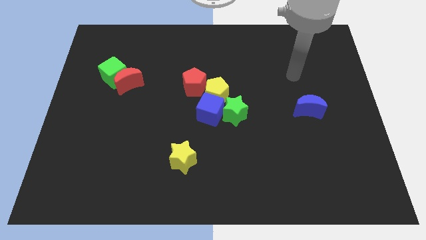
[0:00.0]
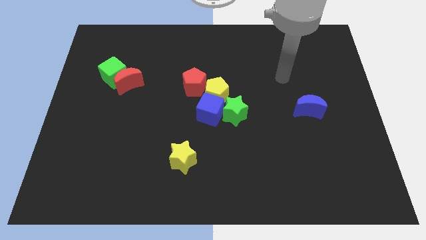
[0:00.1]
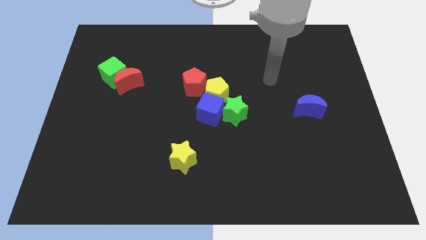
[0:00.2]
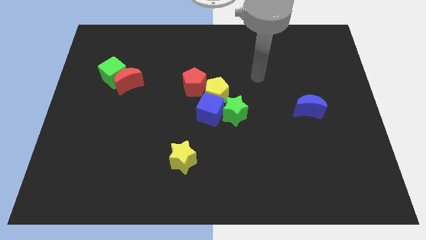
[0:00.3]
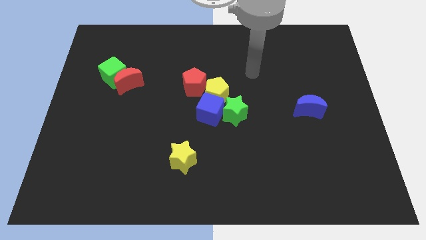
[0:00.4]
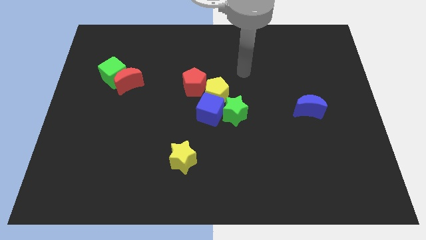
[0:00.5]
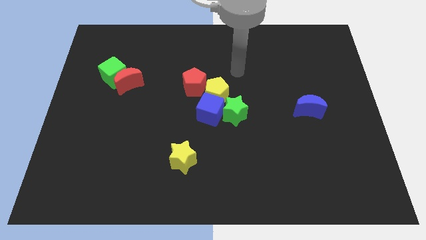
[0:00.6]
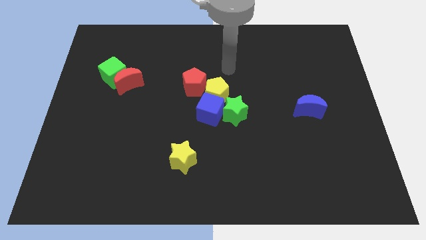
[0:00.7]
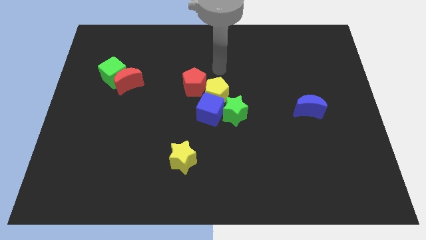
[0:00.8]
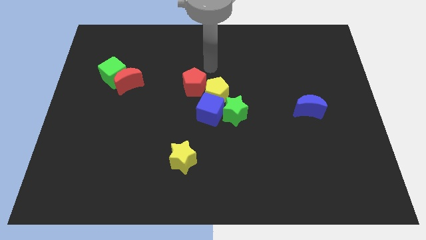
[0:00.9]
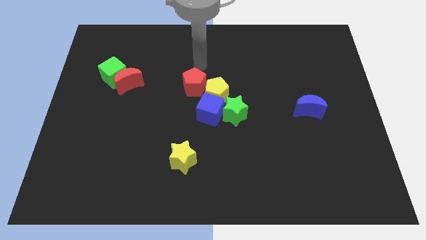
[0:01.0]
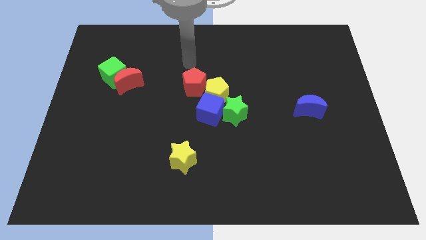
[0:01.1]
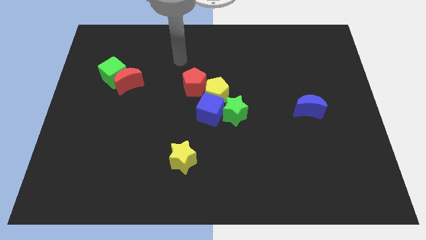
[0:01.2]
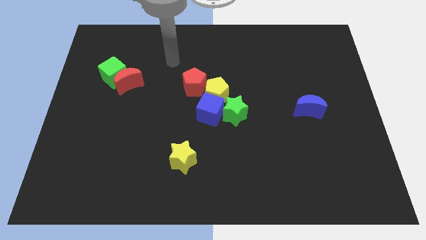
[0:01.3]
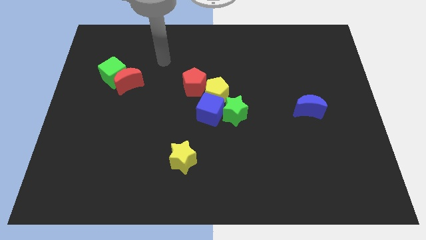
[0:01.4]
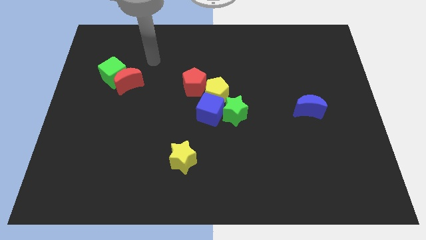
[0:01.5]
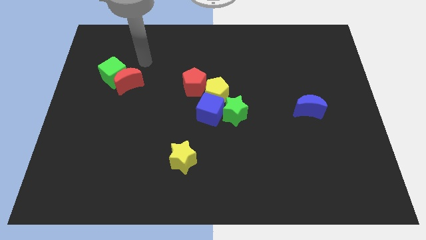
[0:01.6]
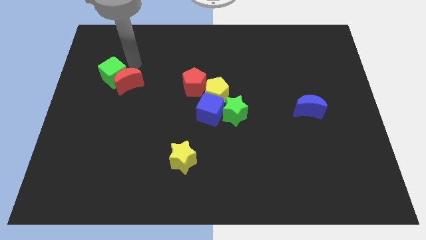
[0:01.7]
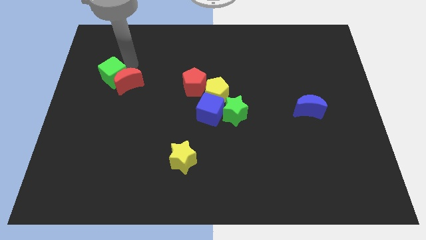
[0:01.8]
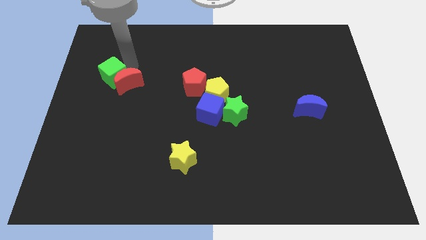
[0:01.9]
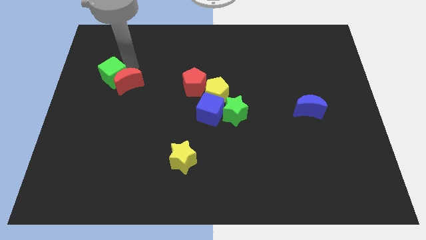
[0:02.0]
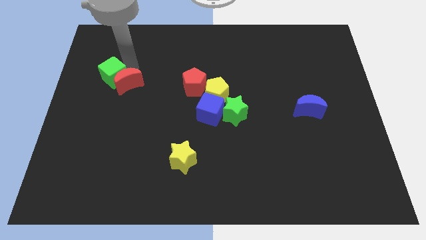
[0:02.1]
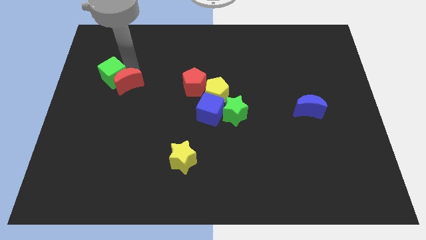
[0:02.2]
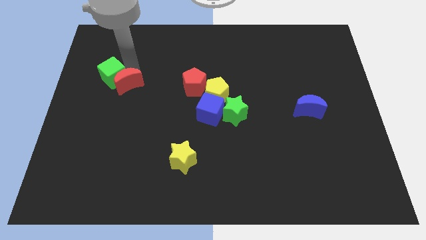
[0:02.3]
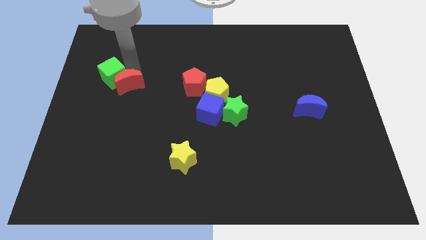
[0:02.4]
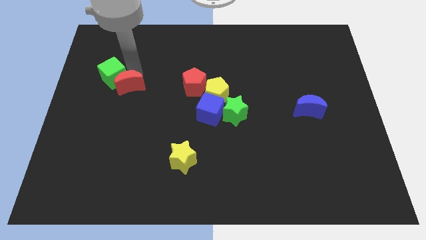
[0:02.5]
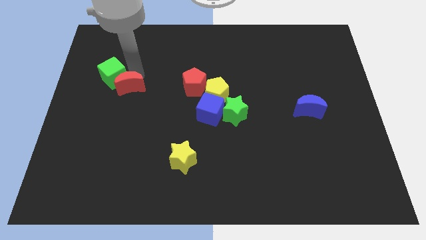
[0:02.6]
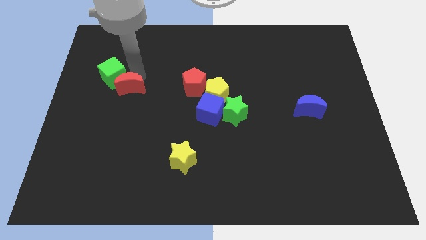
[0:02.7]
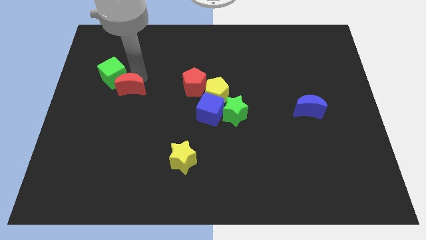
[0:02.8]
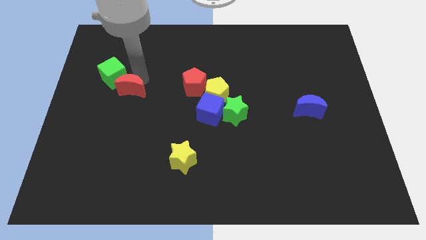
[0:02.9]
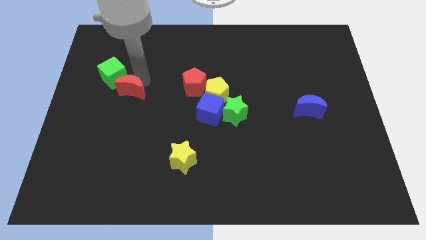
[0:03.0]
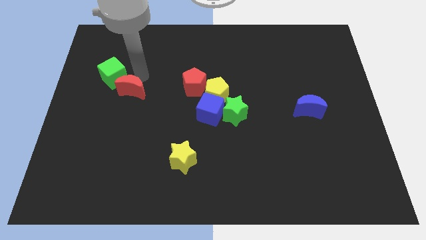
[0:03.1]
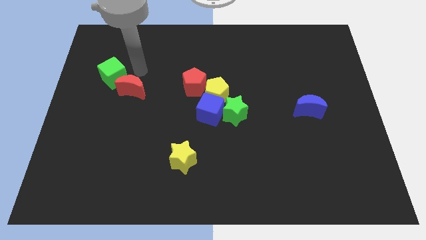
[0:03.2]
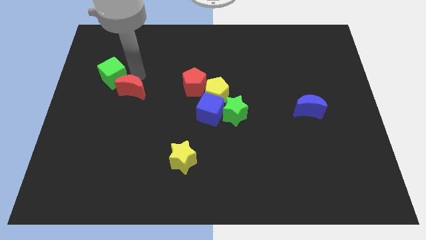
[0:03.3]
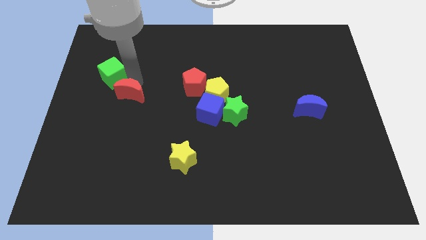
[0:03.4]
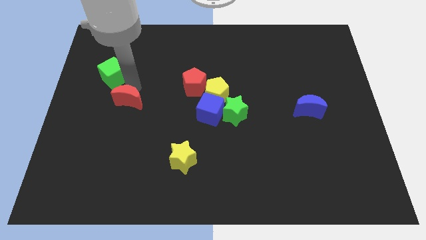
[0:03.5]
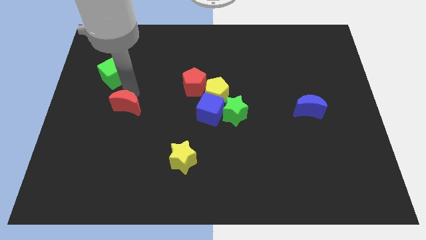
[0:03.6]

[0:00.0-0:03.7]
push the red moon downwards a bit

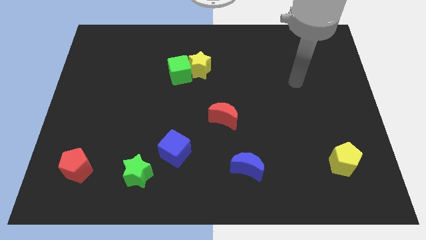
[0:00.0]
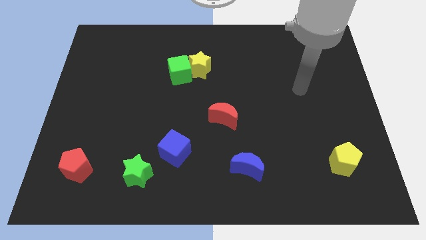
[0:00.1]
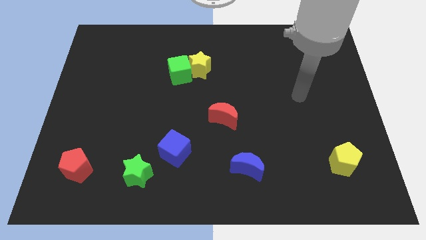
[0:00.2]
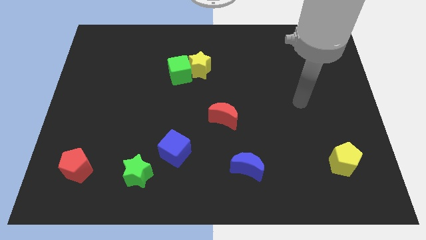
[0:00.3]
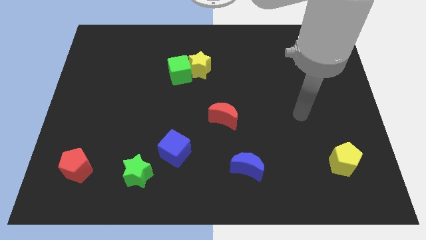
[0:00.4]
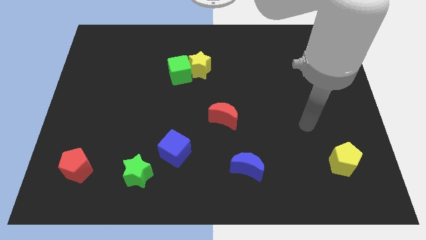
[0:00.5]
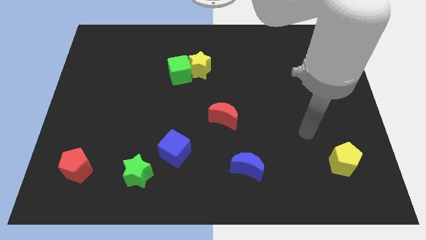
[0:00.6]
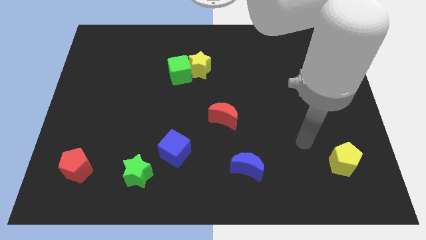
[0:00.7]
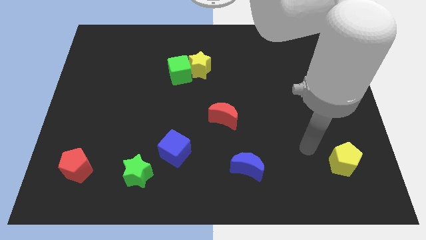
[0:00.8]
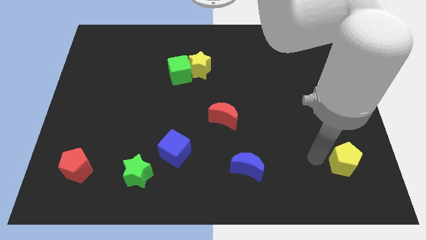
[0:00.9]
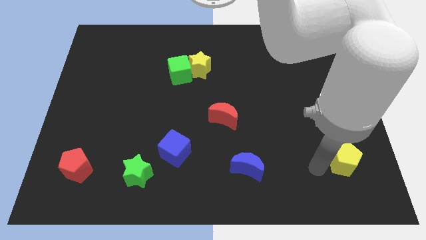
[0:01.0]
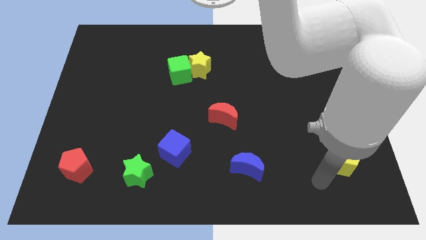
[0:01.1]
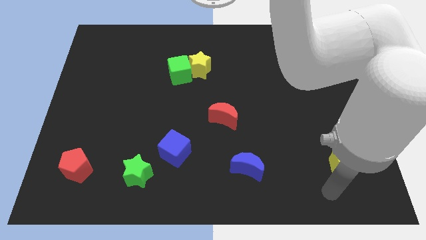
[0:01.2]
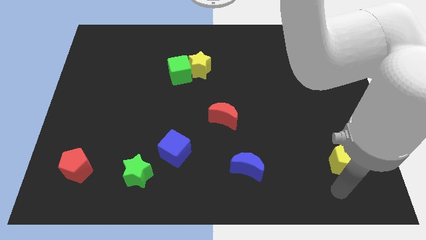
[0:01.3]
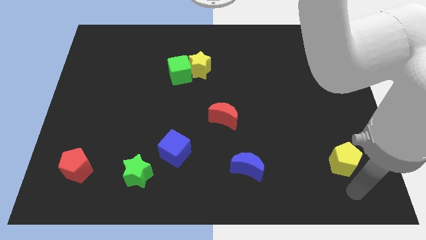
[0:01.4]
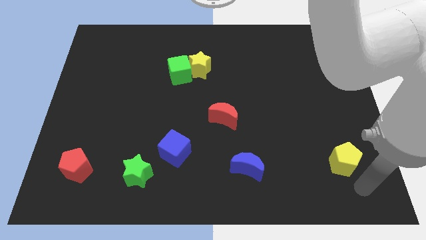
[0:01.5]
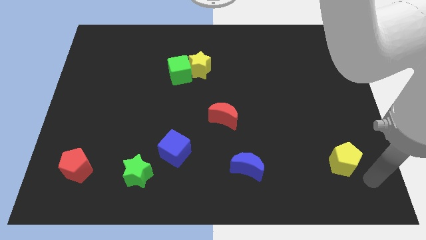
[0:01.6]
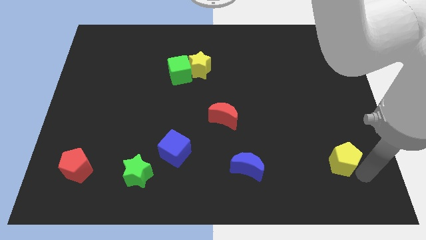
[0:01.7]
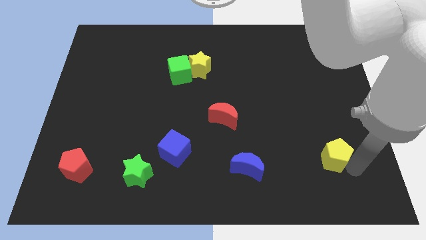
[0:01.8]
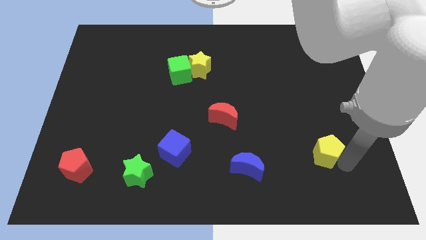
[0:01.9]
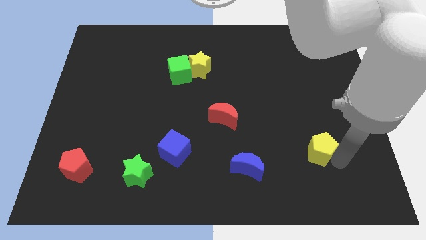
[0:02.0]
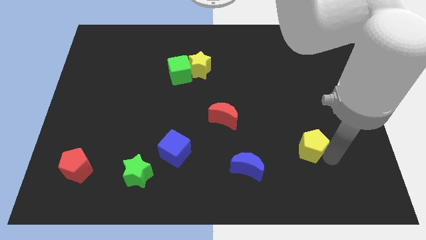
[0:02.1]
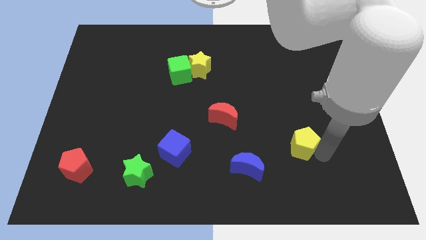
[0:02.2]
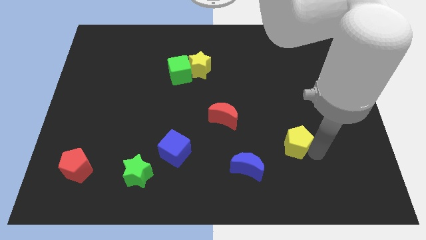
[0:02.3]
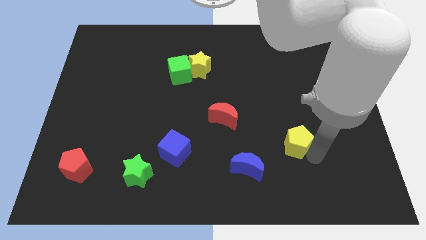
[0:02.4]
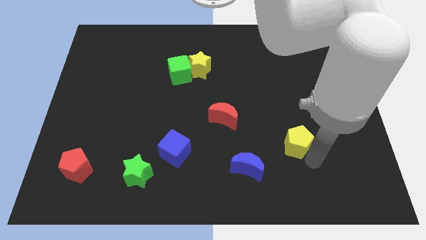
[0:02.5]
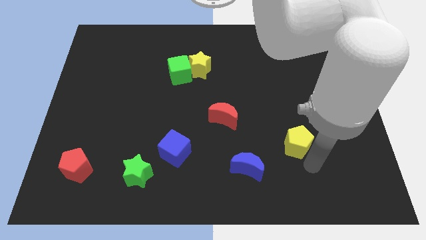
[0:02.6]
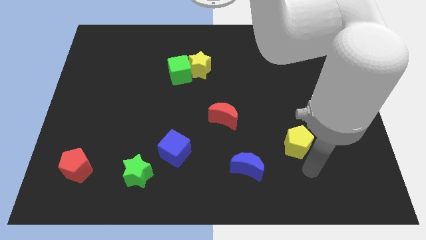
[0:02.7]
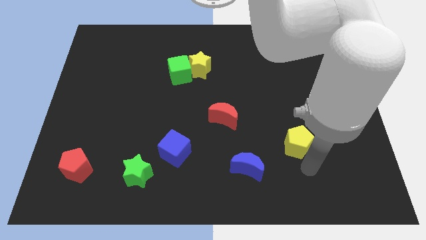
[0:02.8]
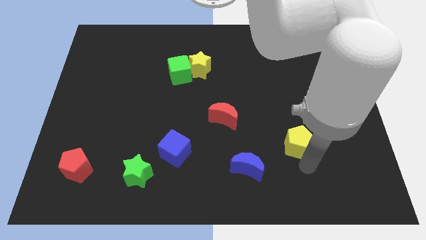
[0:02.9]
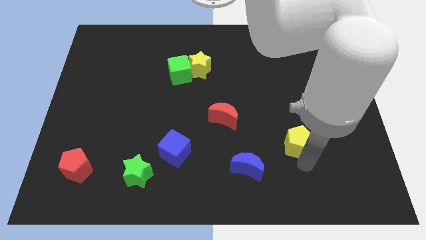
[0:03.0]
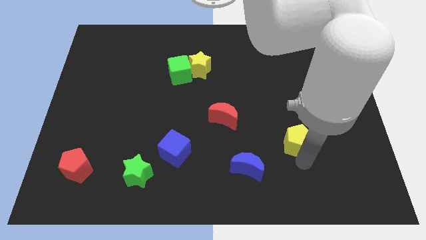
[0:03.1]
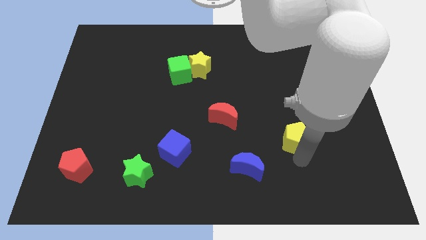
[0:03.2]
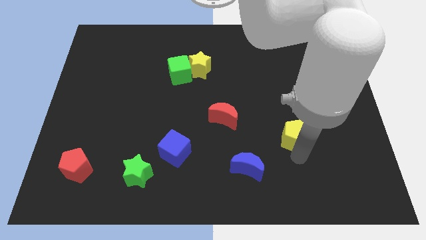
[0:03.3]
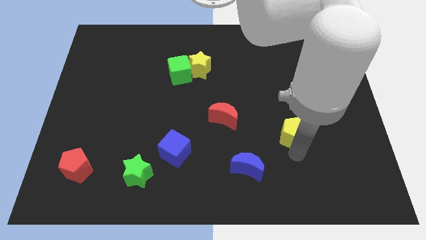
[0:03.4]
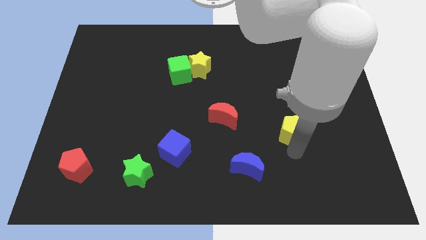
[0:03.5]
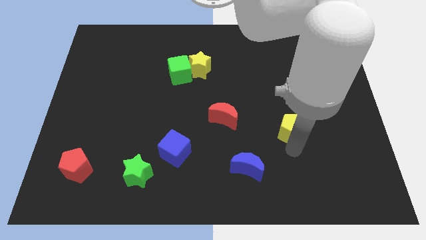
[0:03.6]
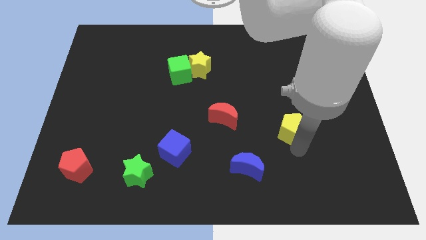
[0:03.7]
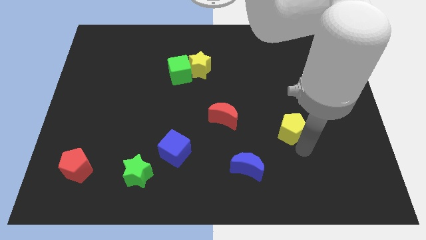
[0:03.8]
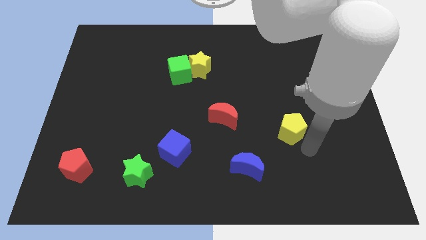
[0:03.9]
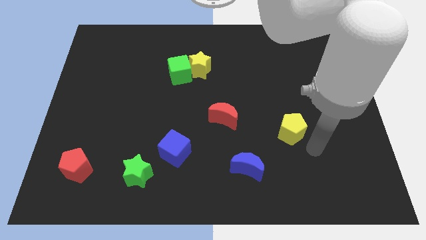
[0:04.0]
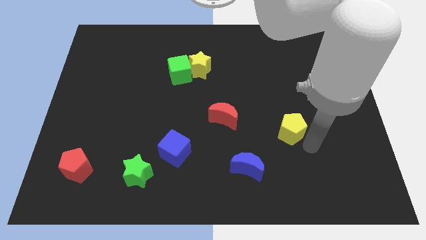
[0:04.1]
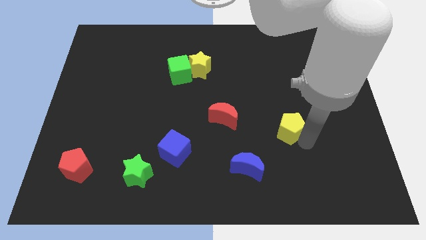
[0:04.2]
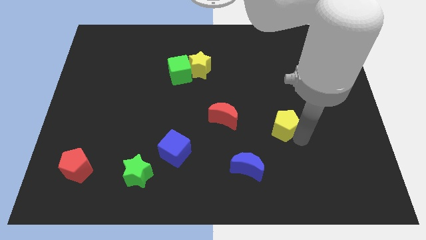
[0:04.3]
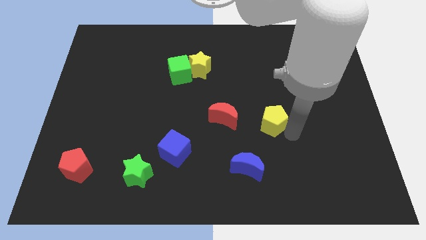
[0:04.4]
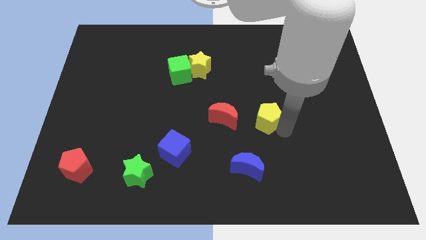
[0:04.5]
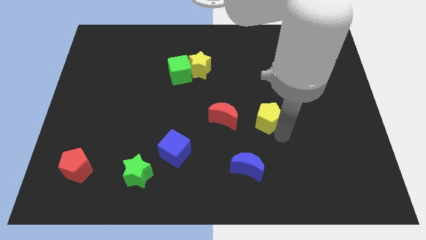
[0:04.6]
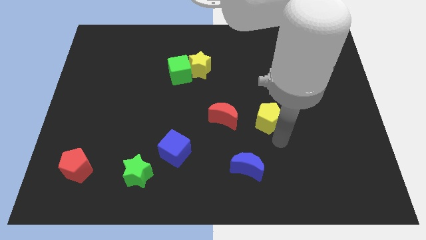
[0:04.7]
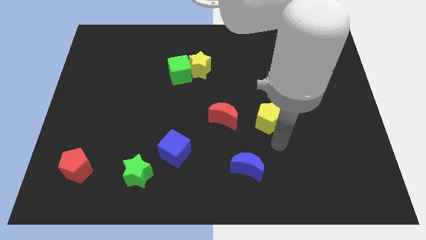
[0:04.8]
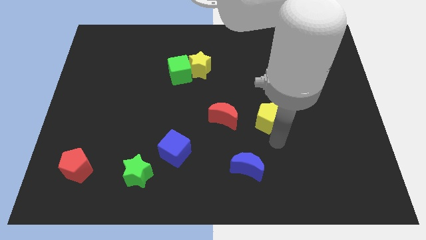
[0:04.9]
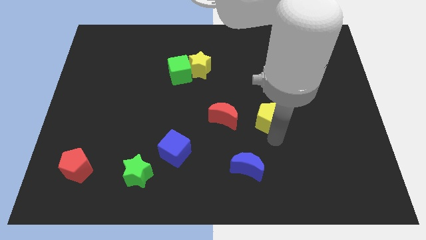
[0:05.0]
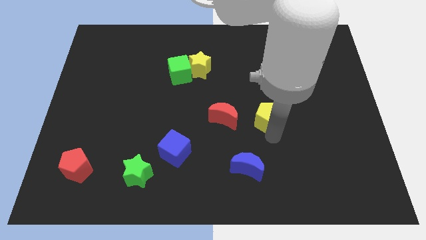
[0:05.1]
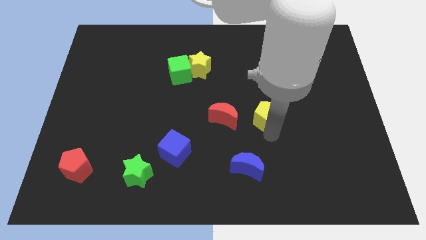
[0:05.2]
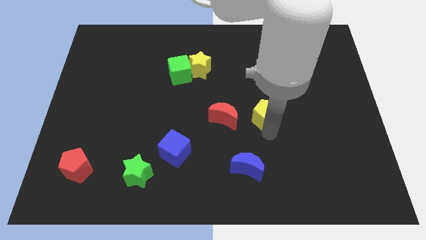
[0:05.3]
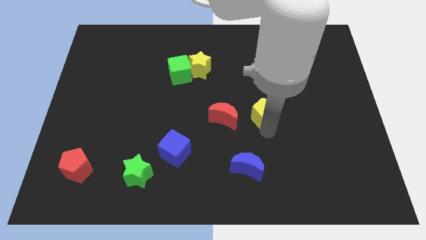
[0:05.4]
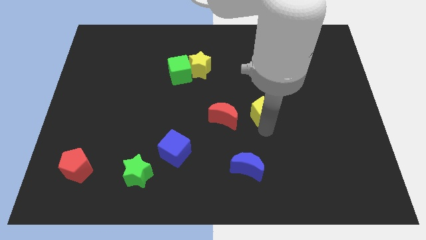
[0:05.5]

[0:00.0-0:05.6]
push the yellow pentagon upwards and left
